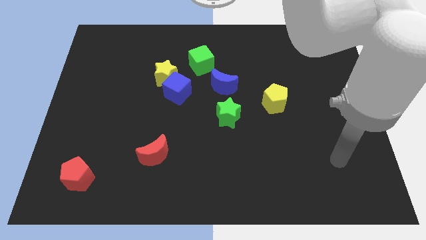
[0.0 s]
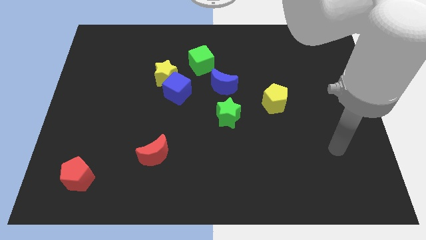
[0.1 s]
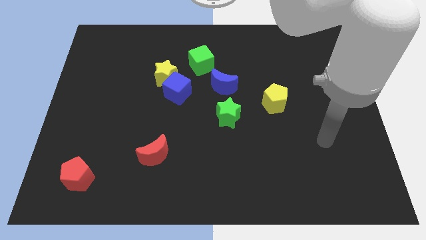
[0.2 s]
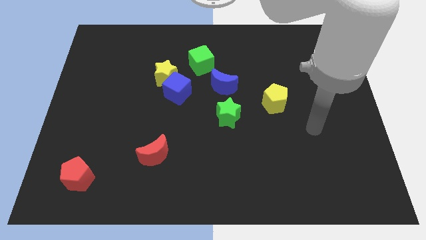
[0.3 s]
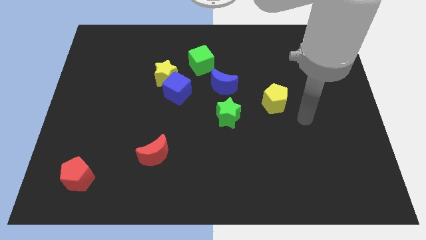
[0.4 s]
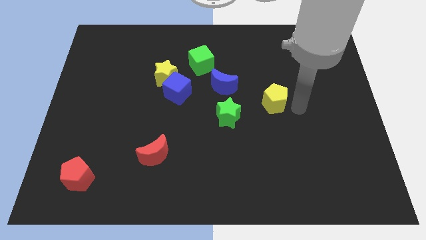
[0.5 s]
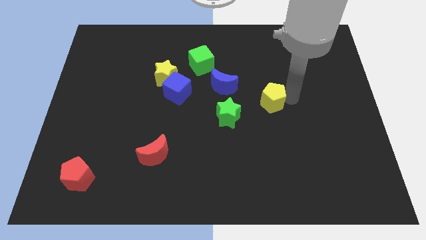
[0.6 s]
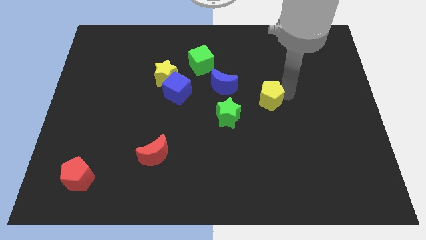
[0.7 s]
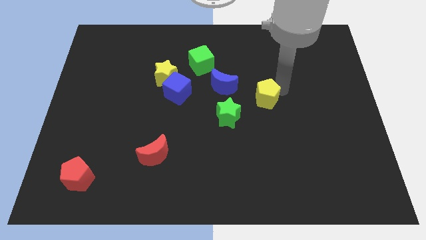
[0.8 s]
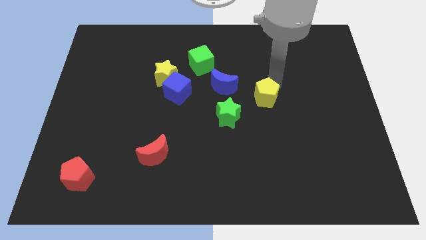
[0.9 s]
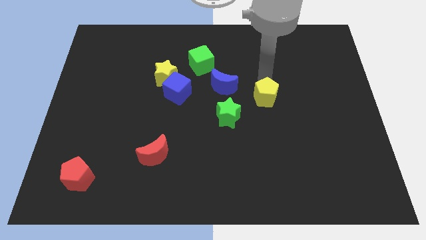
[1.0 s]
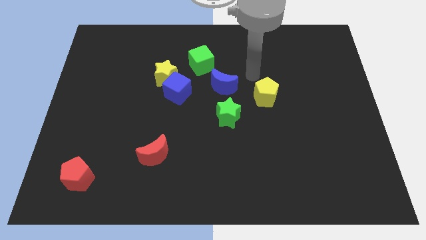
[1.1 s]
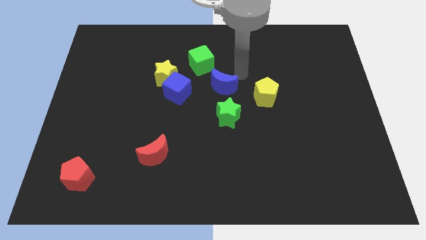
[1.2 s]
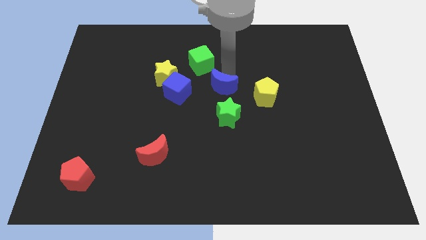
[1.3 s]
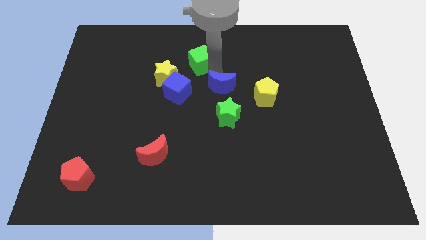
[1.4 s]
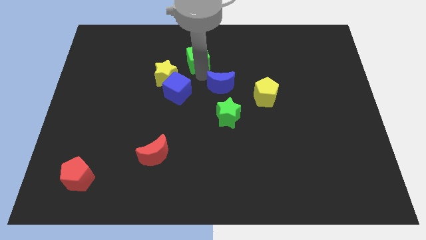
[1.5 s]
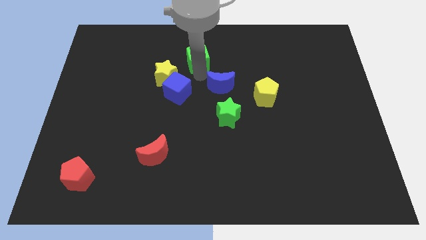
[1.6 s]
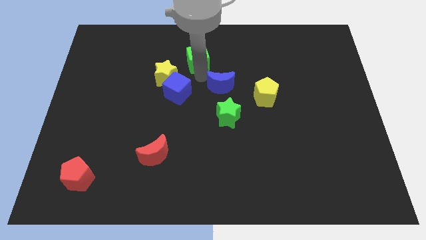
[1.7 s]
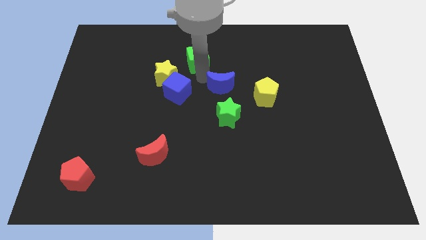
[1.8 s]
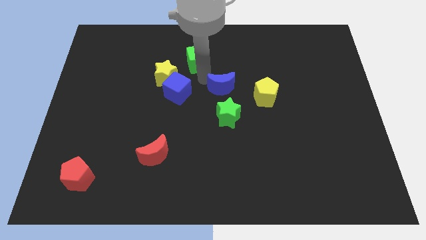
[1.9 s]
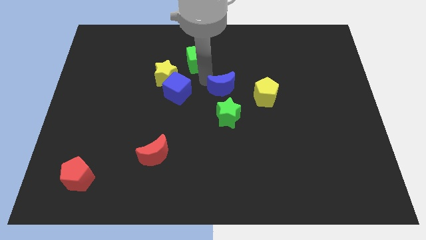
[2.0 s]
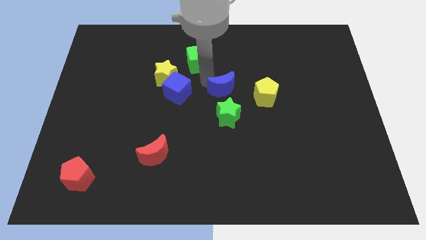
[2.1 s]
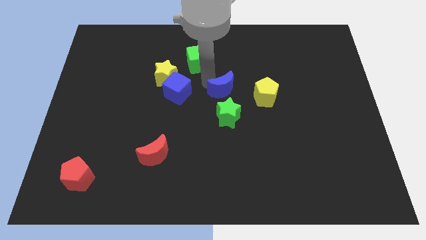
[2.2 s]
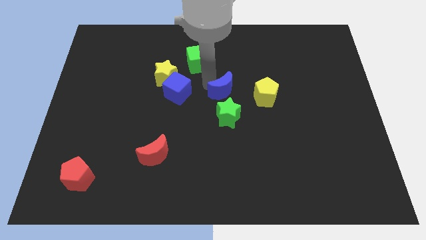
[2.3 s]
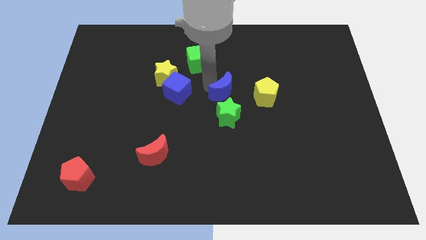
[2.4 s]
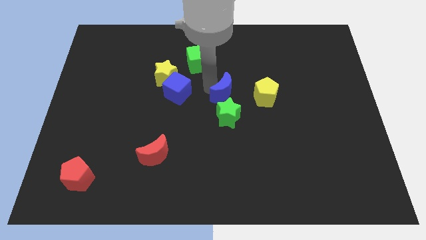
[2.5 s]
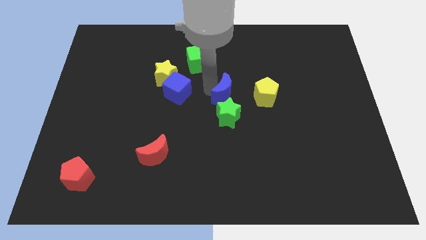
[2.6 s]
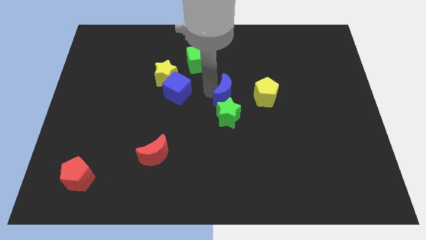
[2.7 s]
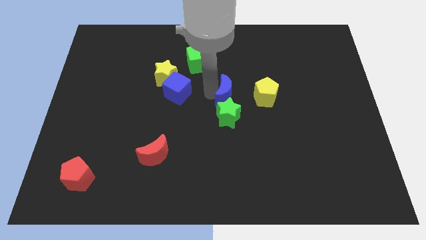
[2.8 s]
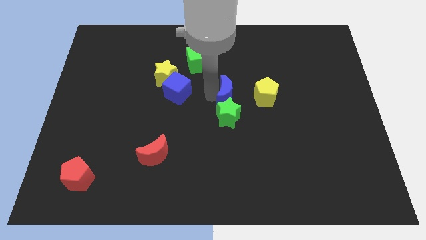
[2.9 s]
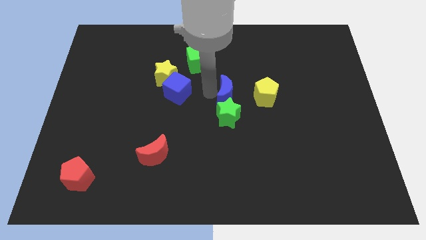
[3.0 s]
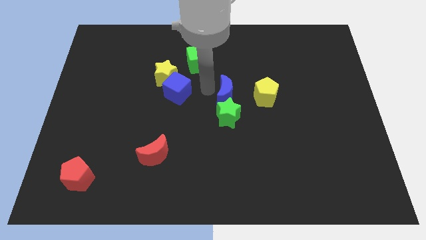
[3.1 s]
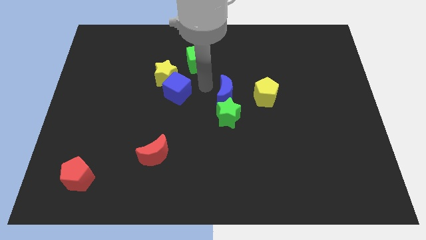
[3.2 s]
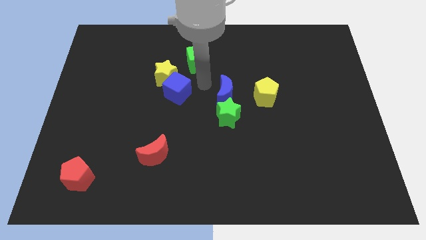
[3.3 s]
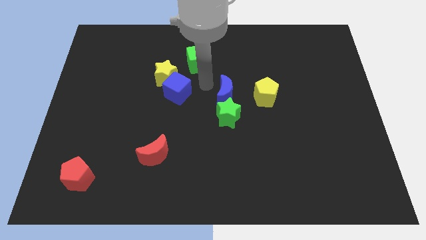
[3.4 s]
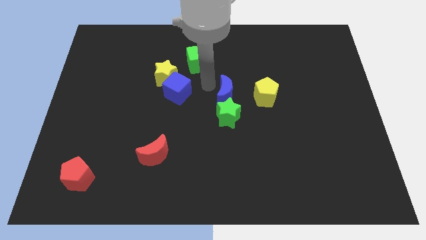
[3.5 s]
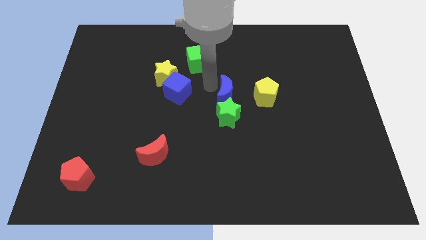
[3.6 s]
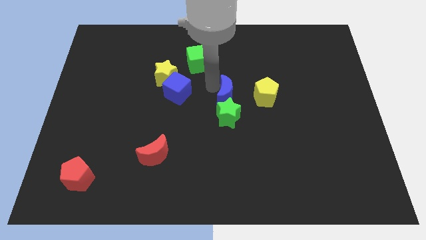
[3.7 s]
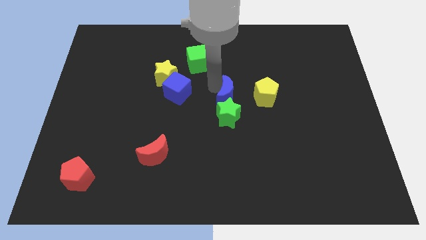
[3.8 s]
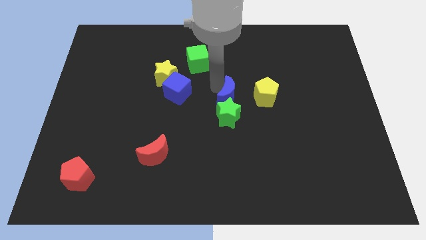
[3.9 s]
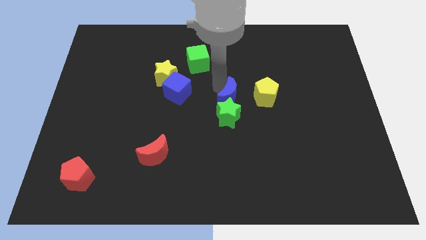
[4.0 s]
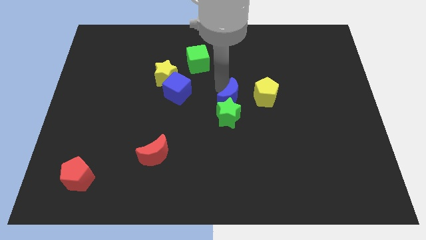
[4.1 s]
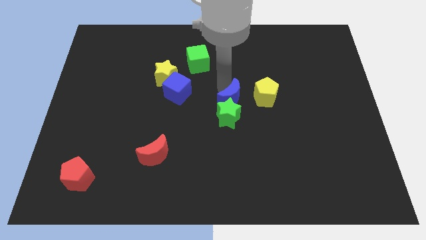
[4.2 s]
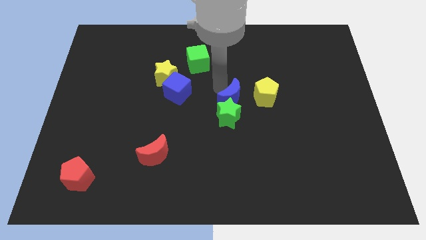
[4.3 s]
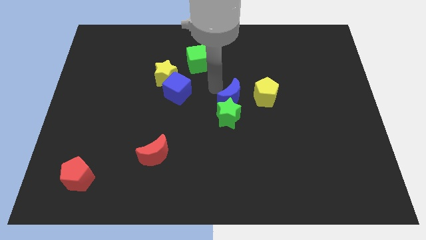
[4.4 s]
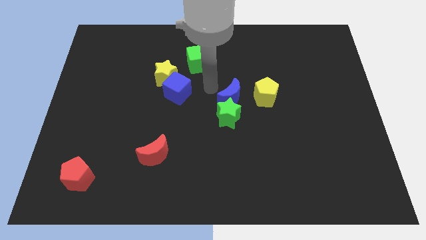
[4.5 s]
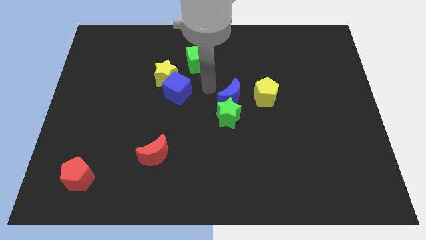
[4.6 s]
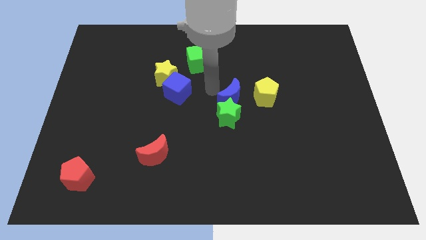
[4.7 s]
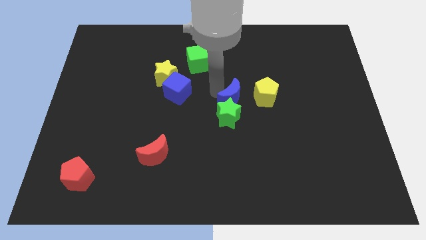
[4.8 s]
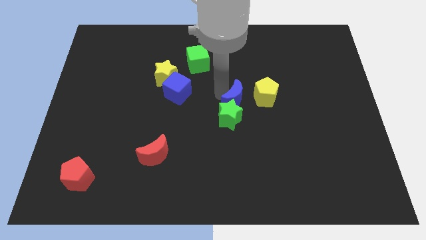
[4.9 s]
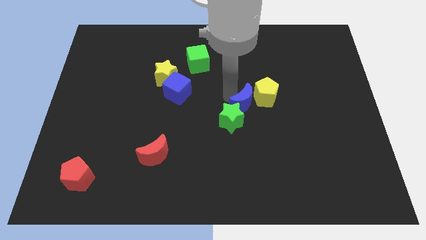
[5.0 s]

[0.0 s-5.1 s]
slightly slide the blue moon down and to the right

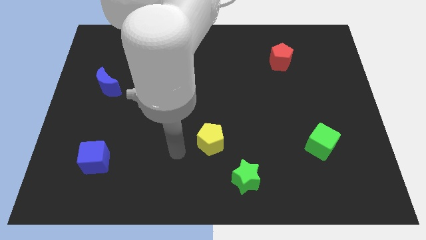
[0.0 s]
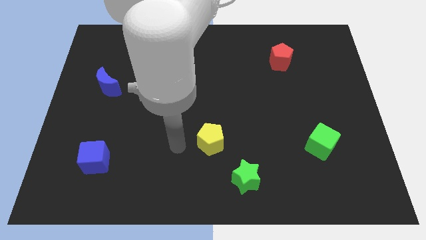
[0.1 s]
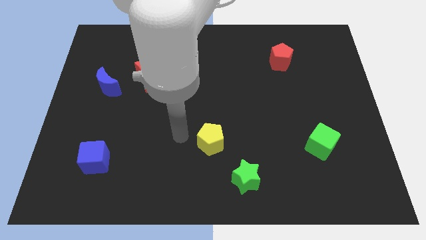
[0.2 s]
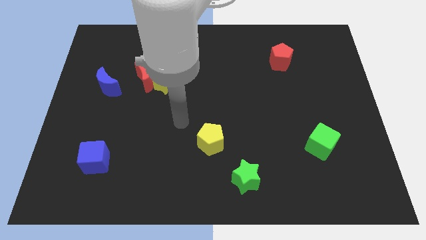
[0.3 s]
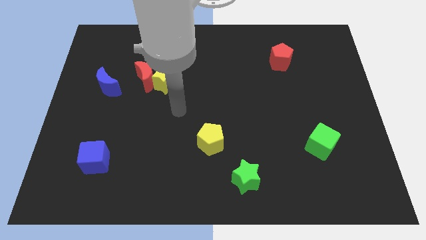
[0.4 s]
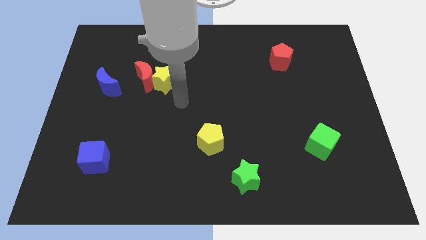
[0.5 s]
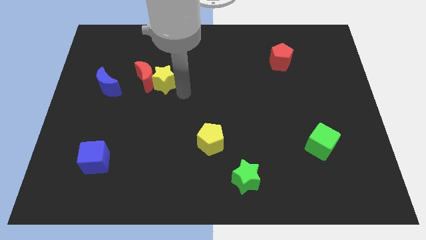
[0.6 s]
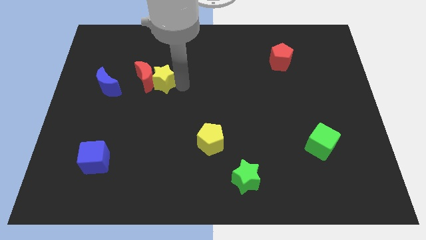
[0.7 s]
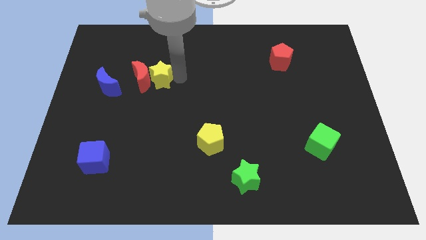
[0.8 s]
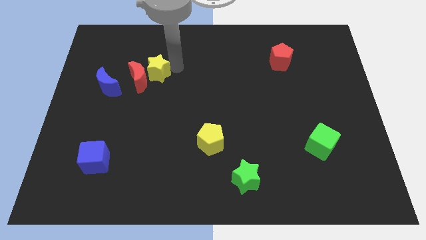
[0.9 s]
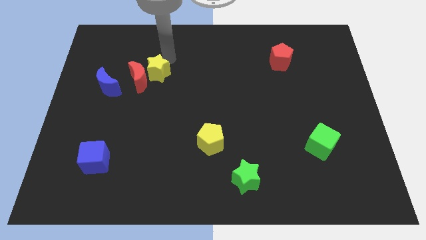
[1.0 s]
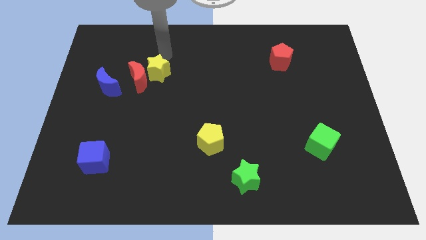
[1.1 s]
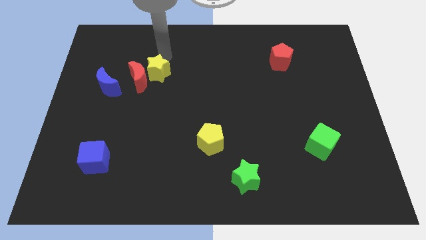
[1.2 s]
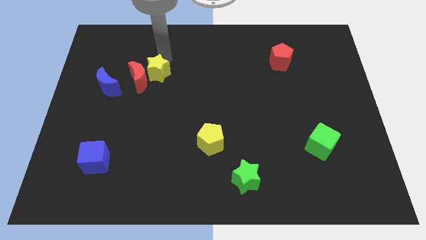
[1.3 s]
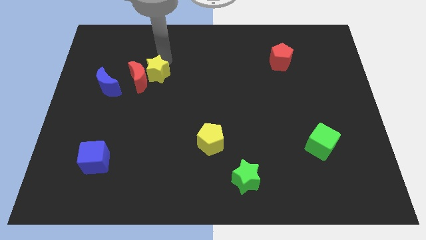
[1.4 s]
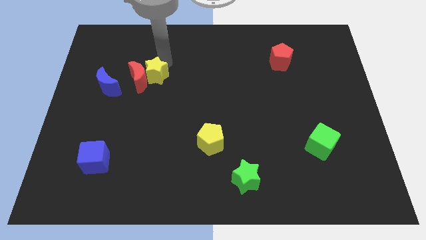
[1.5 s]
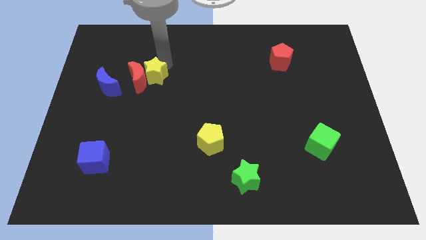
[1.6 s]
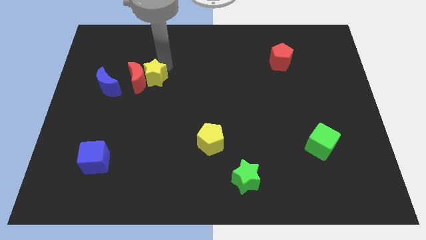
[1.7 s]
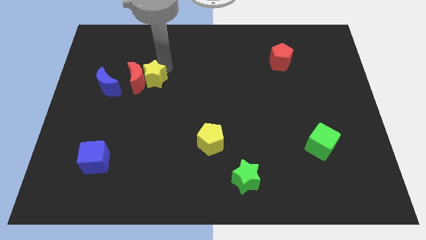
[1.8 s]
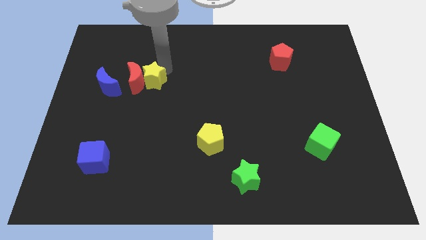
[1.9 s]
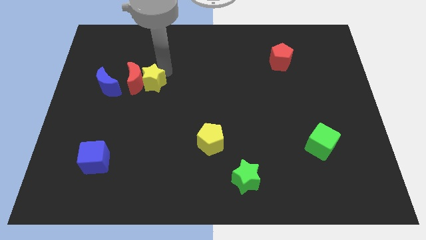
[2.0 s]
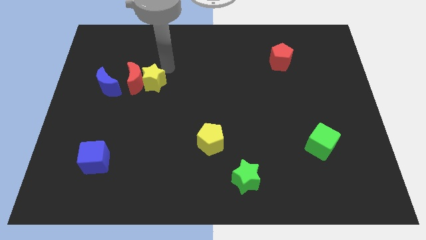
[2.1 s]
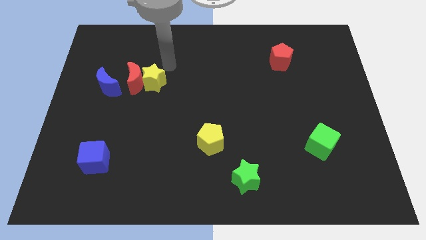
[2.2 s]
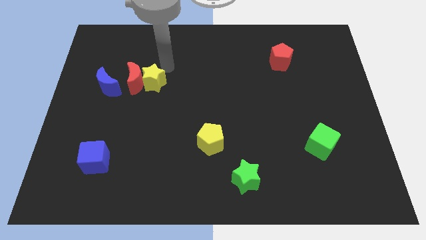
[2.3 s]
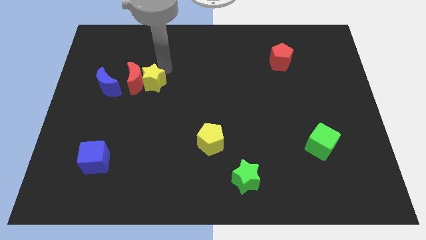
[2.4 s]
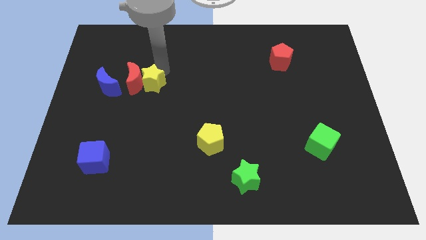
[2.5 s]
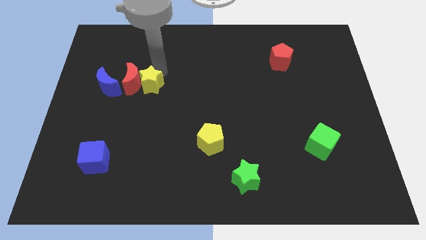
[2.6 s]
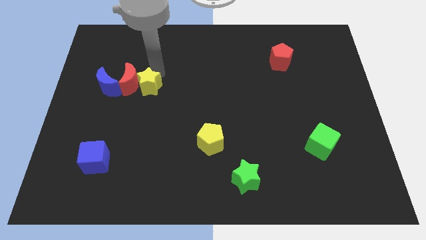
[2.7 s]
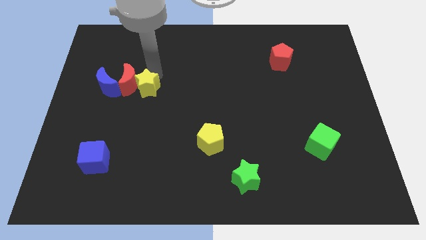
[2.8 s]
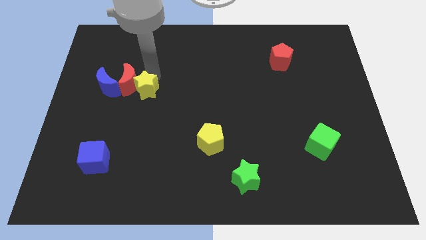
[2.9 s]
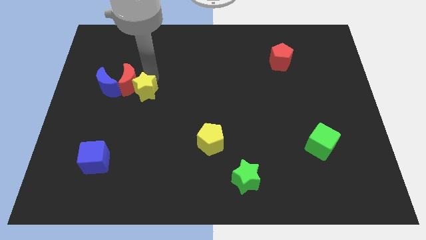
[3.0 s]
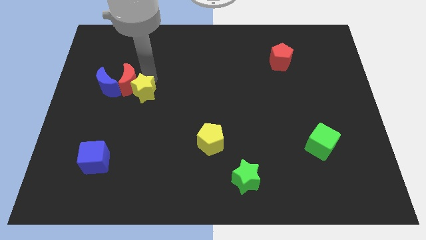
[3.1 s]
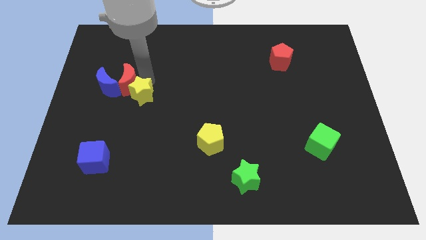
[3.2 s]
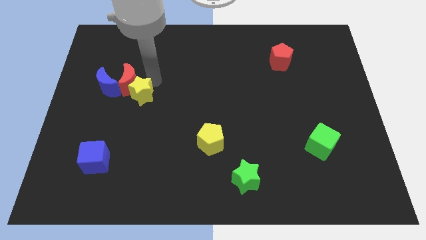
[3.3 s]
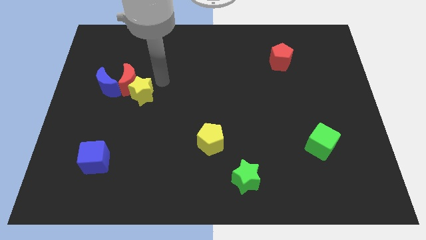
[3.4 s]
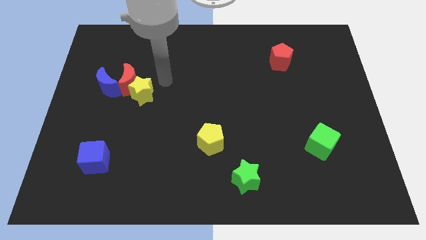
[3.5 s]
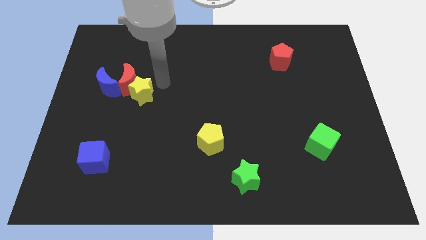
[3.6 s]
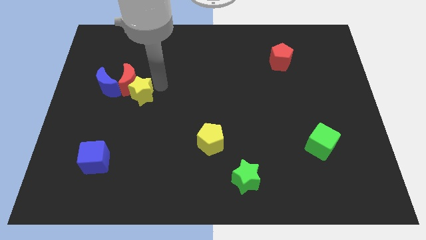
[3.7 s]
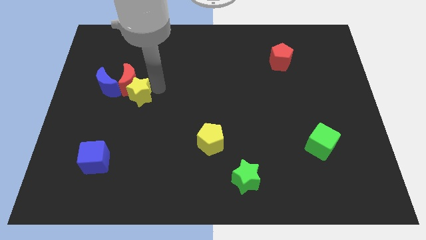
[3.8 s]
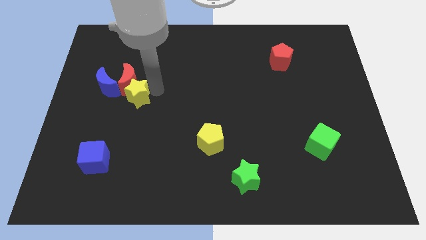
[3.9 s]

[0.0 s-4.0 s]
slightly slide the yellow star downwards and then to the left
